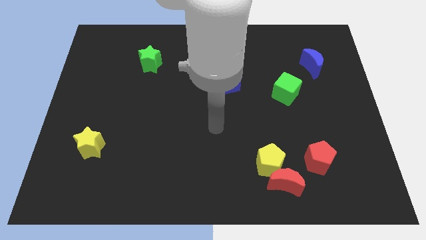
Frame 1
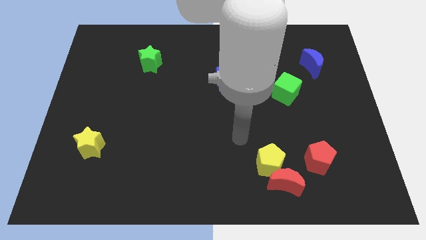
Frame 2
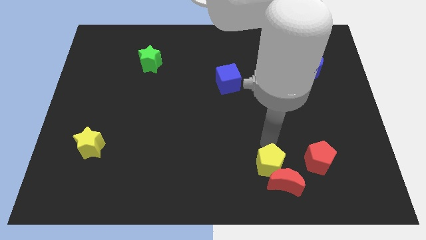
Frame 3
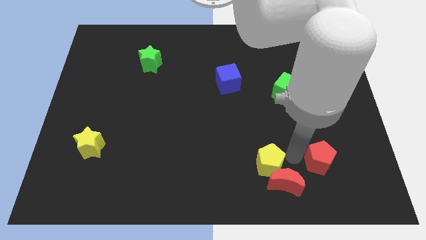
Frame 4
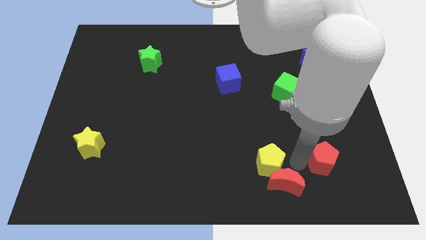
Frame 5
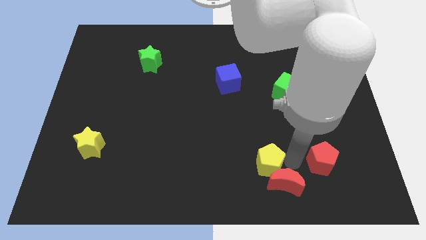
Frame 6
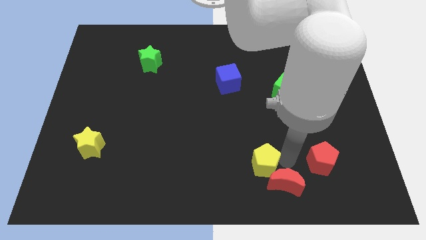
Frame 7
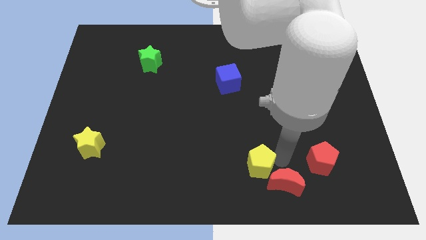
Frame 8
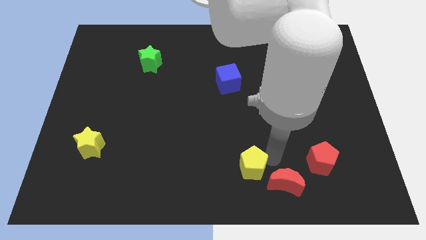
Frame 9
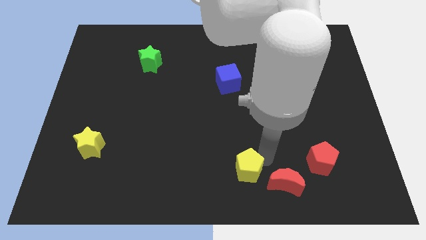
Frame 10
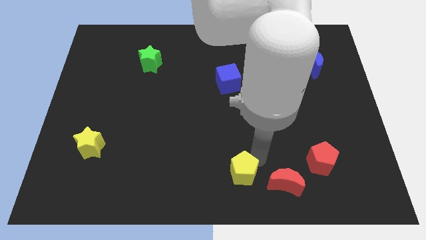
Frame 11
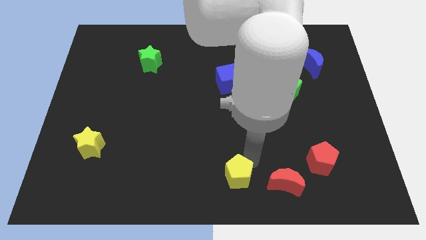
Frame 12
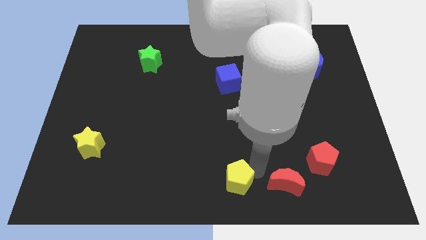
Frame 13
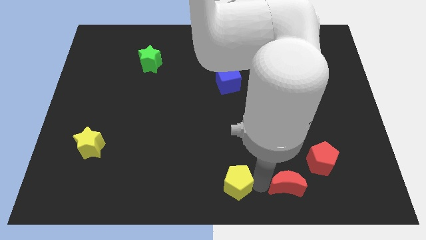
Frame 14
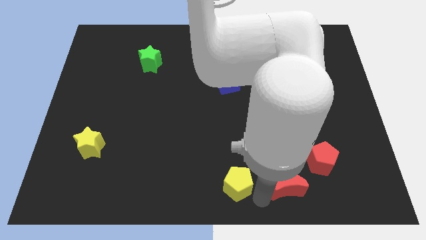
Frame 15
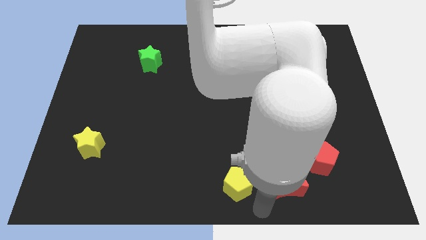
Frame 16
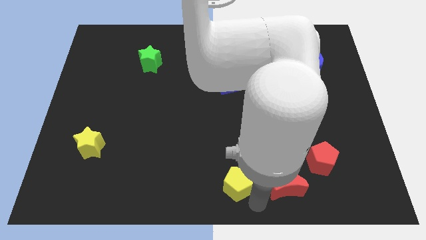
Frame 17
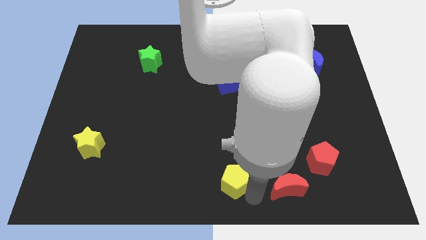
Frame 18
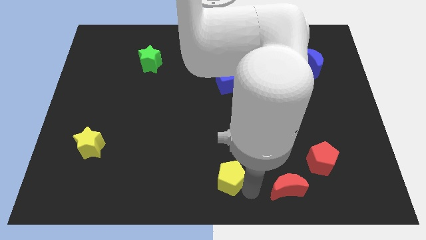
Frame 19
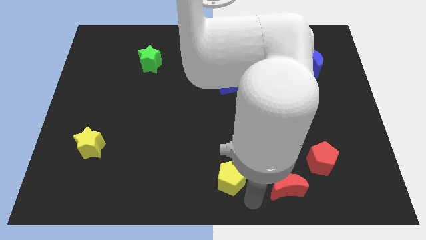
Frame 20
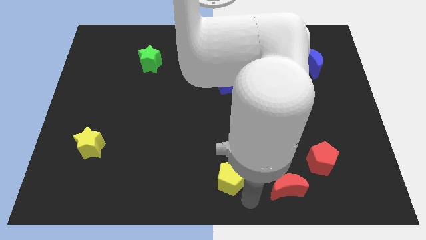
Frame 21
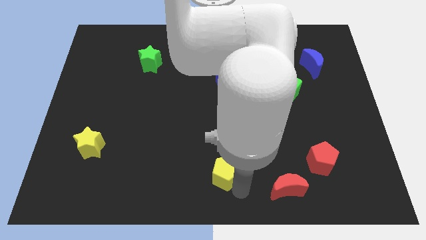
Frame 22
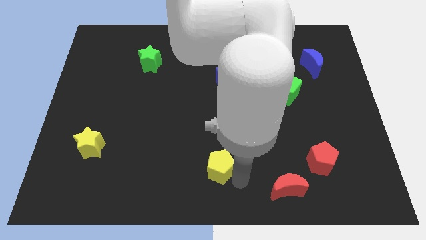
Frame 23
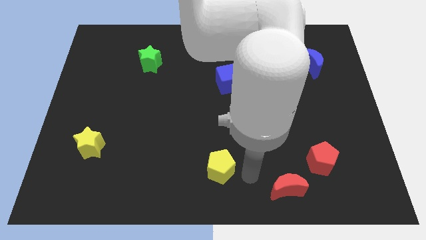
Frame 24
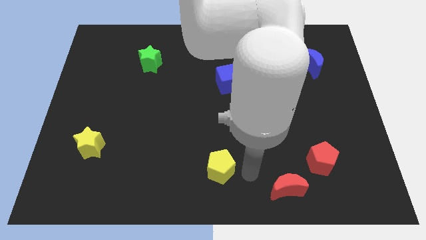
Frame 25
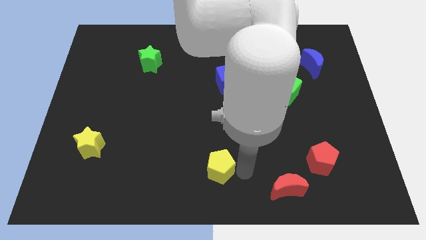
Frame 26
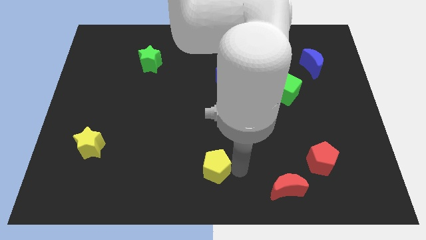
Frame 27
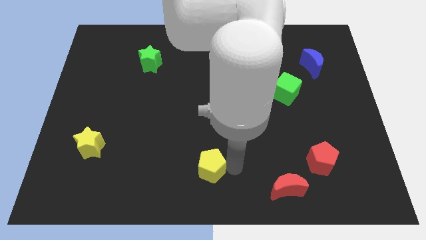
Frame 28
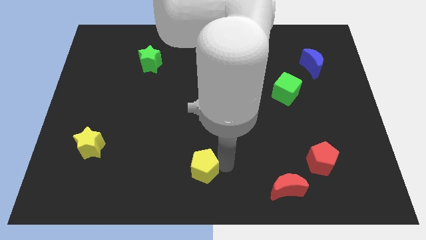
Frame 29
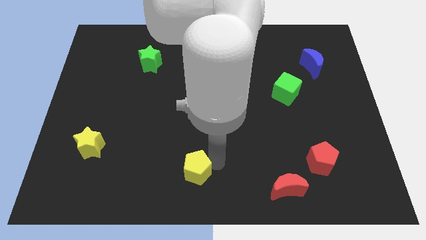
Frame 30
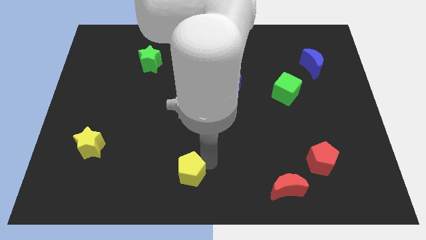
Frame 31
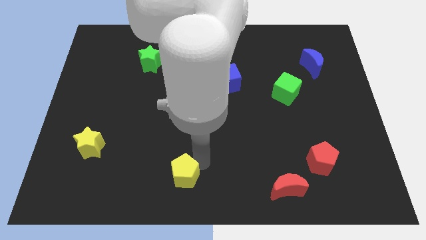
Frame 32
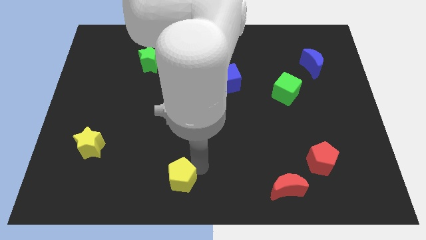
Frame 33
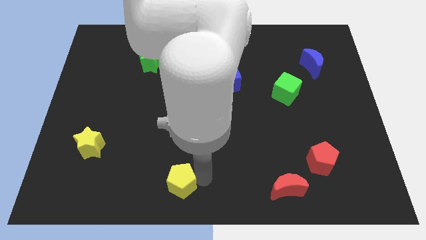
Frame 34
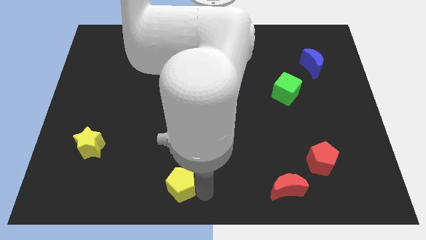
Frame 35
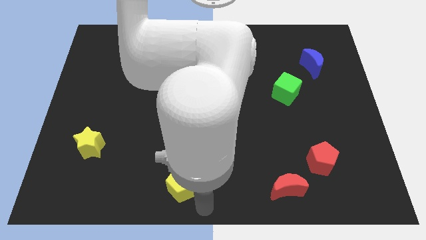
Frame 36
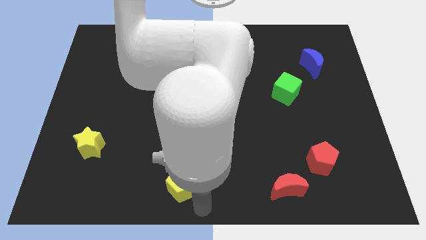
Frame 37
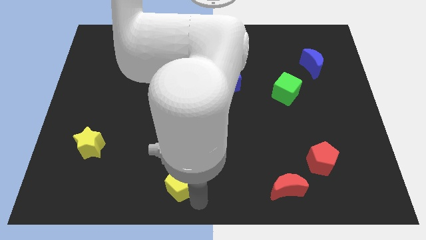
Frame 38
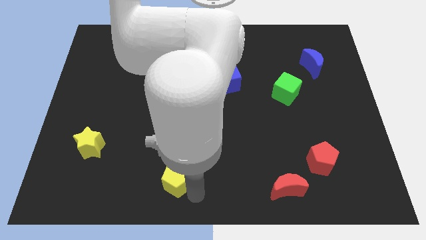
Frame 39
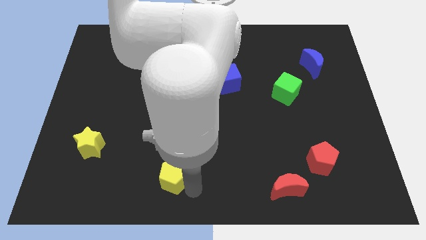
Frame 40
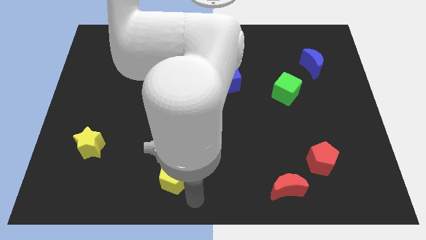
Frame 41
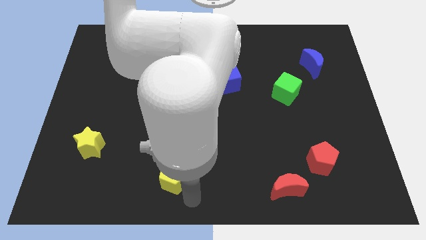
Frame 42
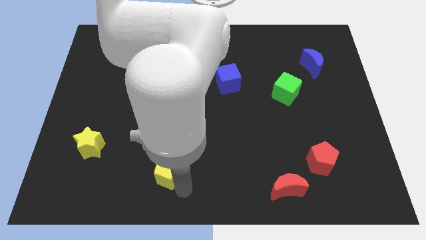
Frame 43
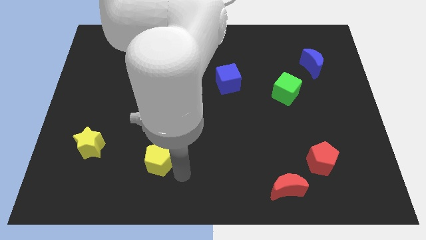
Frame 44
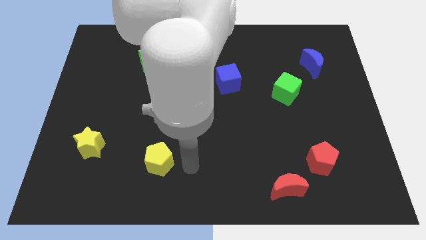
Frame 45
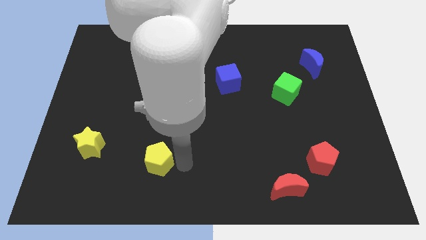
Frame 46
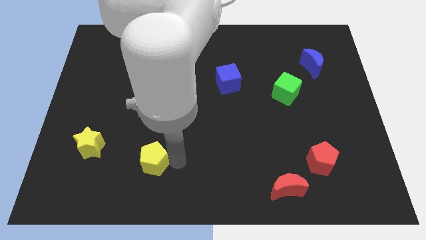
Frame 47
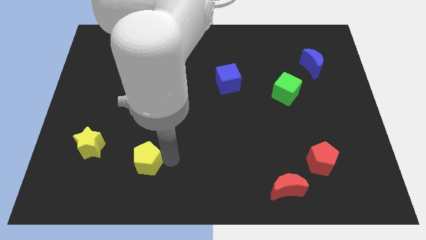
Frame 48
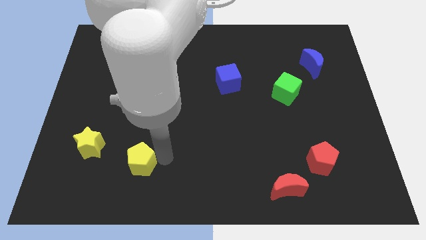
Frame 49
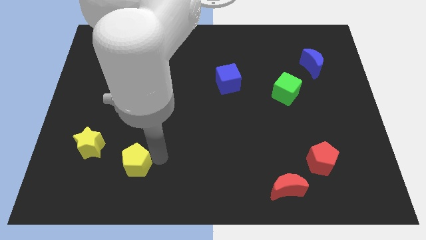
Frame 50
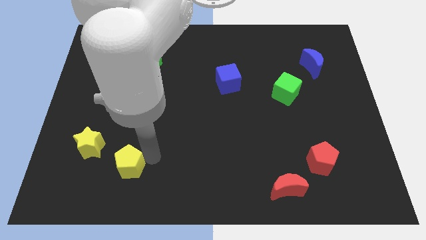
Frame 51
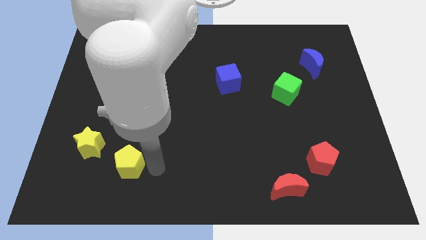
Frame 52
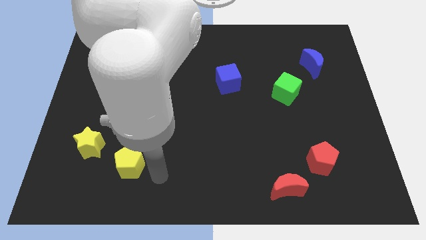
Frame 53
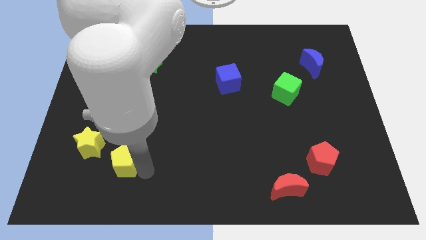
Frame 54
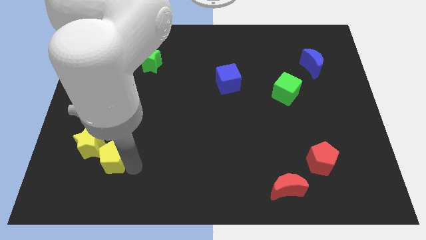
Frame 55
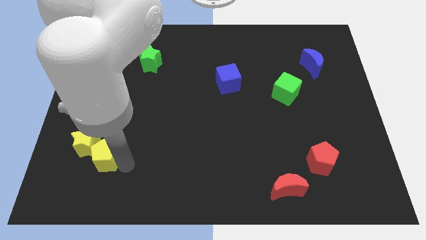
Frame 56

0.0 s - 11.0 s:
slide the yellow pentagon close to the yellow star

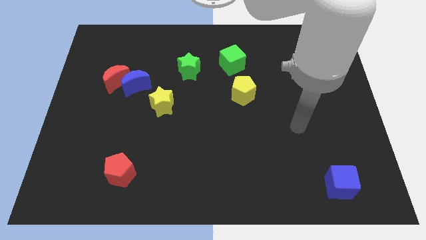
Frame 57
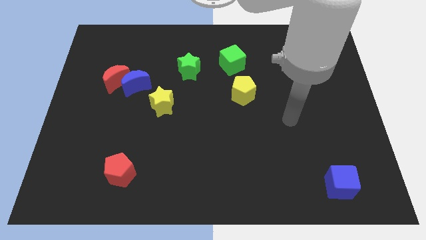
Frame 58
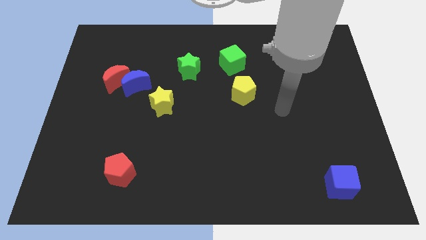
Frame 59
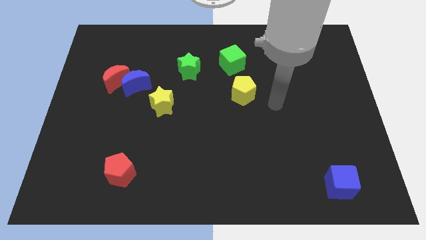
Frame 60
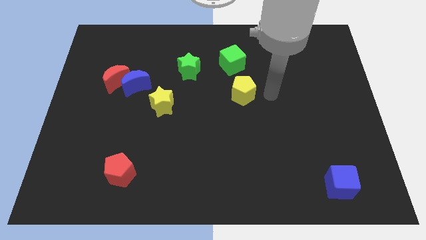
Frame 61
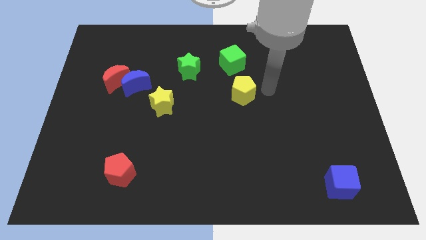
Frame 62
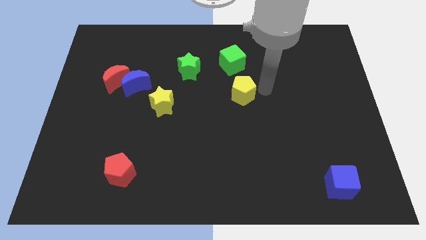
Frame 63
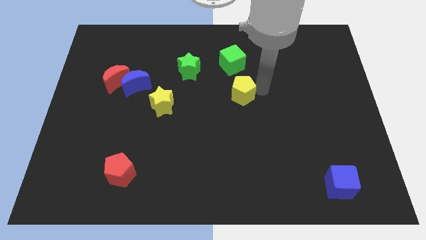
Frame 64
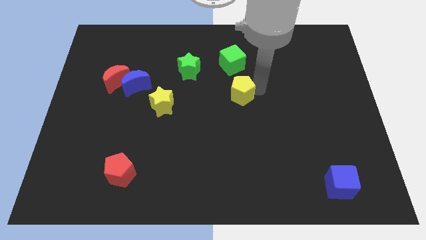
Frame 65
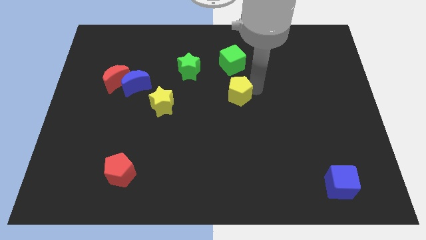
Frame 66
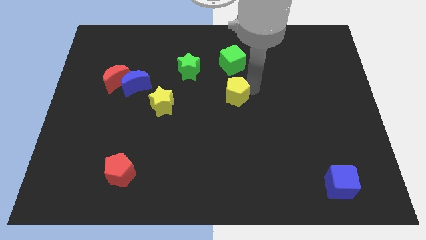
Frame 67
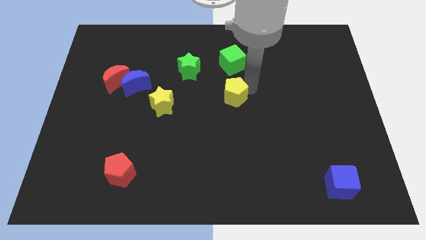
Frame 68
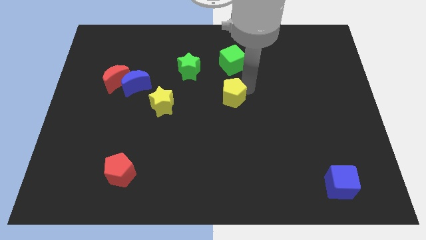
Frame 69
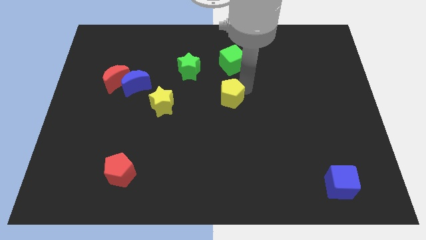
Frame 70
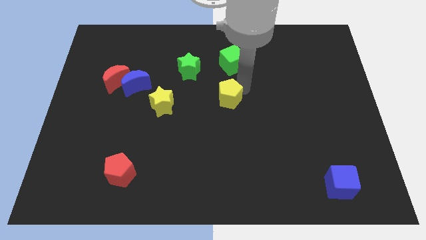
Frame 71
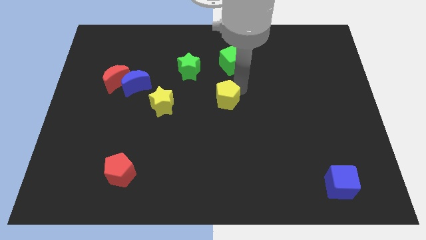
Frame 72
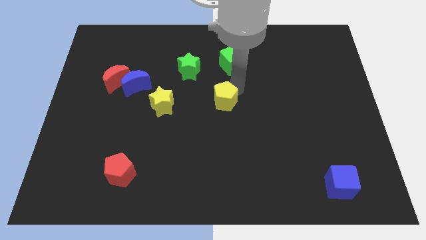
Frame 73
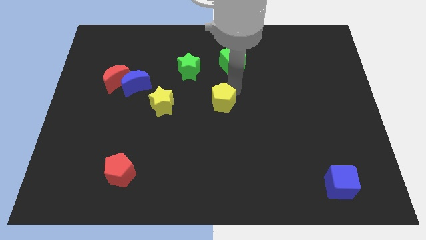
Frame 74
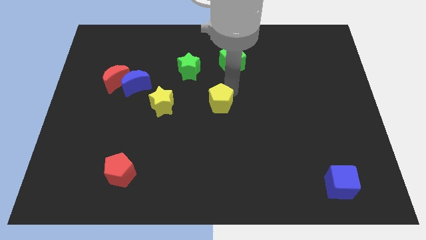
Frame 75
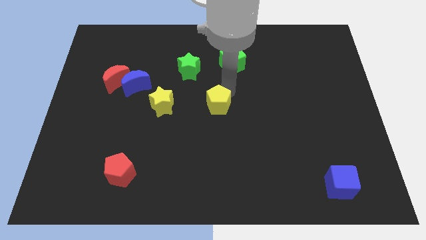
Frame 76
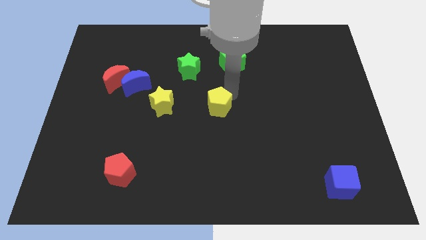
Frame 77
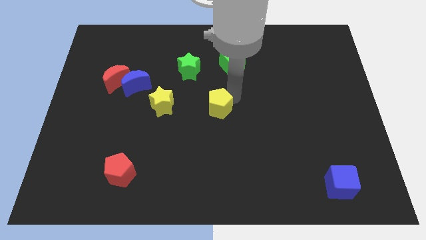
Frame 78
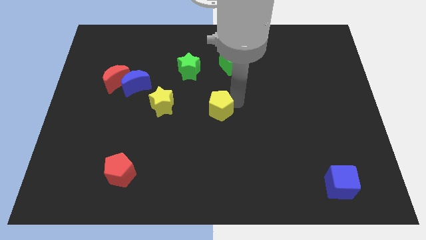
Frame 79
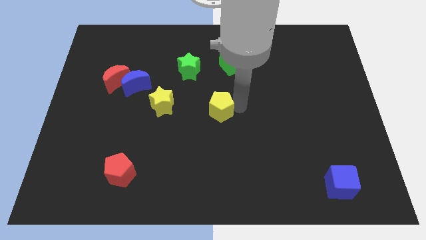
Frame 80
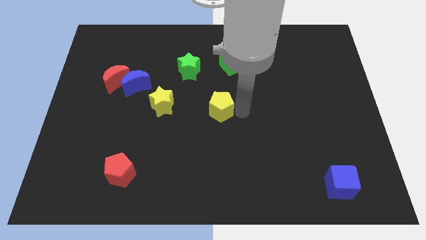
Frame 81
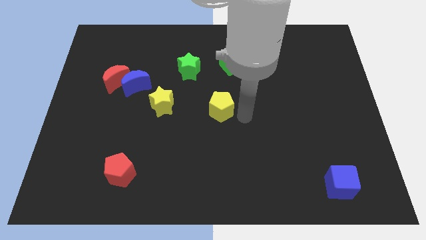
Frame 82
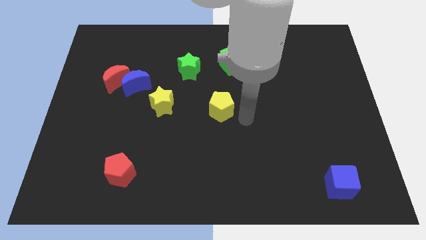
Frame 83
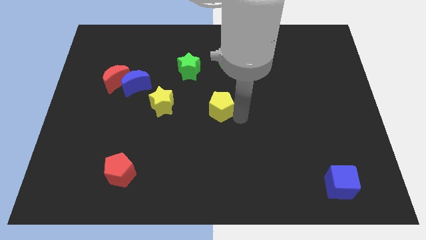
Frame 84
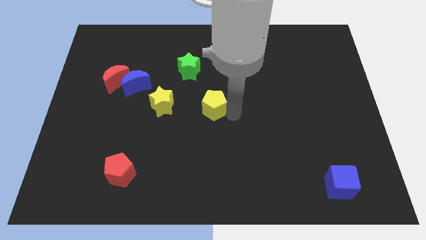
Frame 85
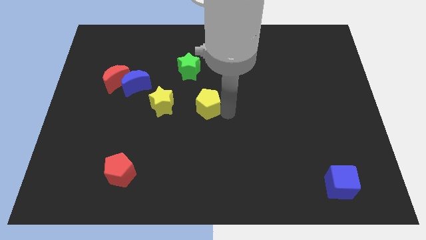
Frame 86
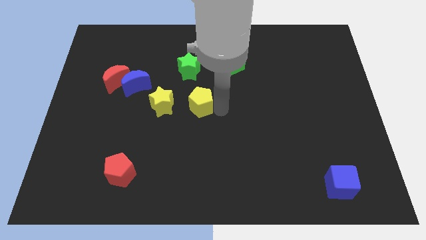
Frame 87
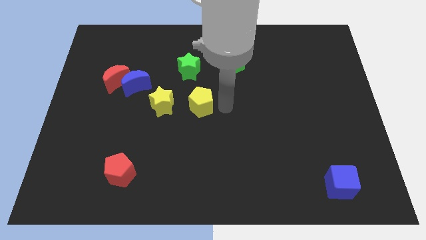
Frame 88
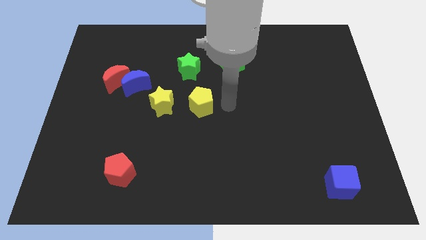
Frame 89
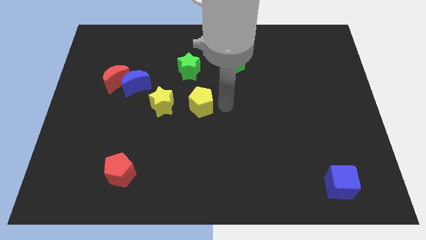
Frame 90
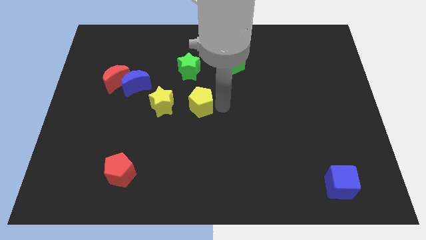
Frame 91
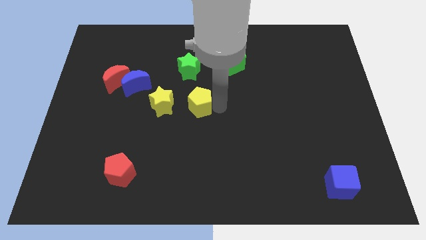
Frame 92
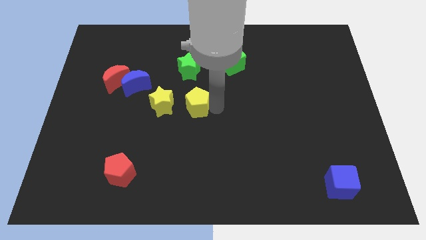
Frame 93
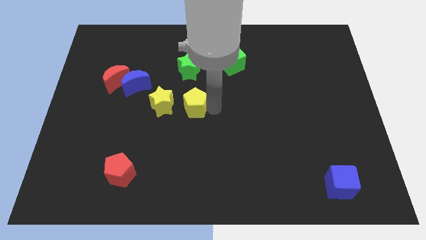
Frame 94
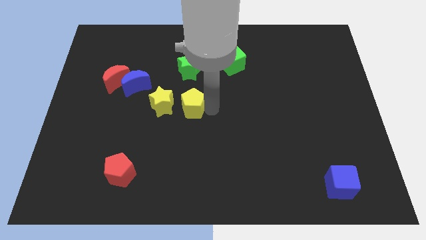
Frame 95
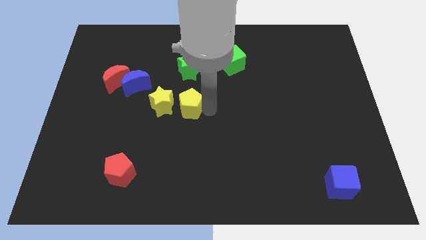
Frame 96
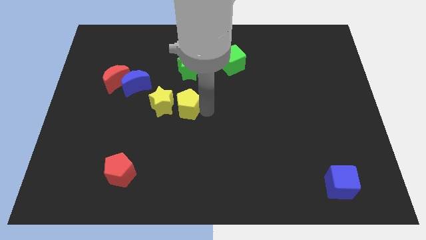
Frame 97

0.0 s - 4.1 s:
push the yellow pentagon towards the yellow star
